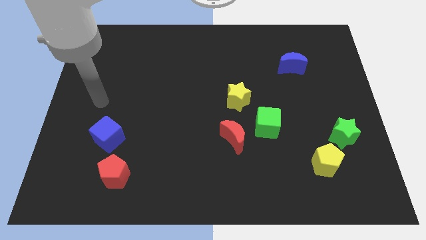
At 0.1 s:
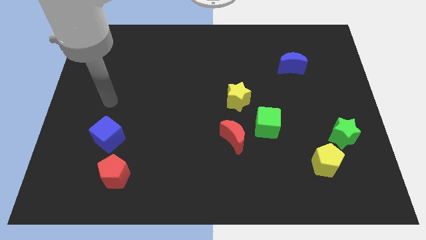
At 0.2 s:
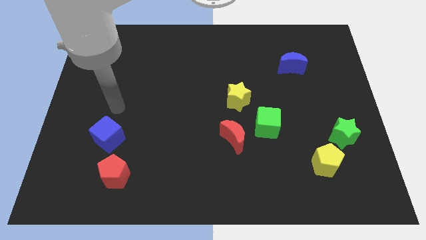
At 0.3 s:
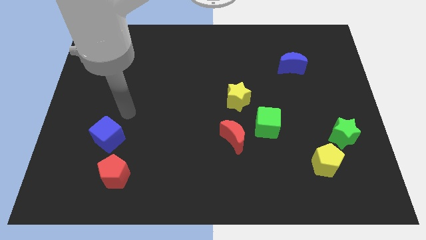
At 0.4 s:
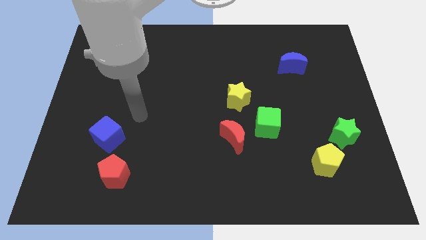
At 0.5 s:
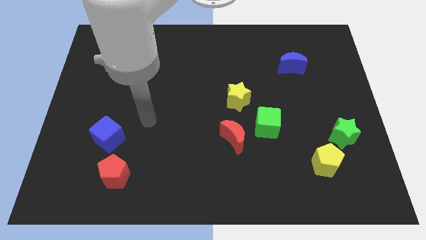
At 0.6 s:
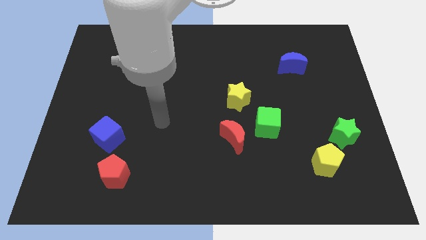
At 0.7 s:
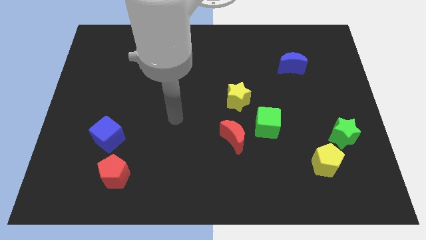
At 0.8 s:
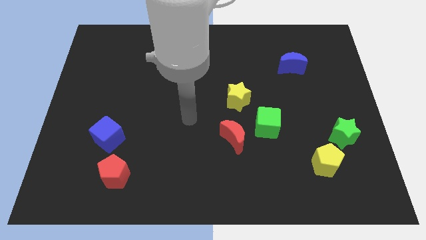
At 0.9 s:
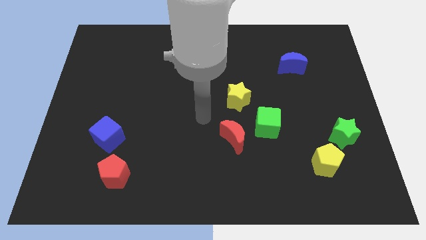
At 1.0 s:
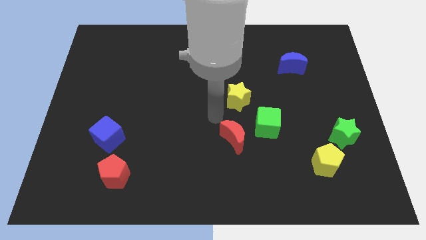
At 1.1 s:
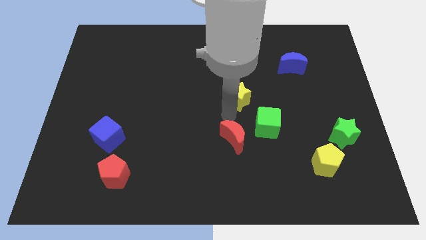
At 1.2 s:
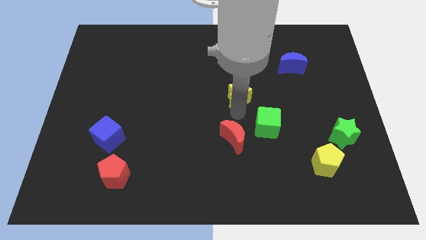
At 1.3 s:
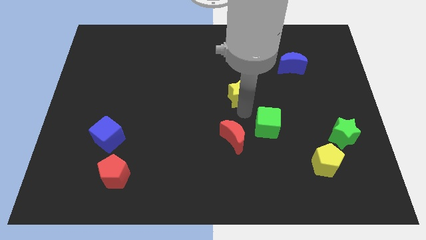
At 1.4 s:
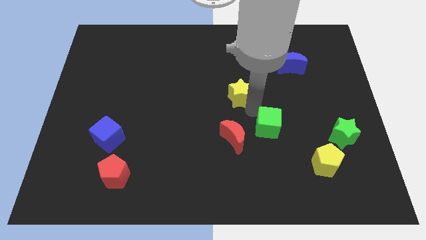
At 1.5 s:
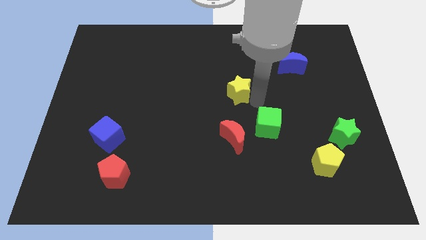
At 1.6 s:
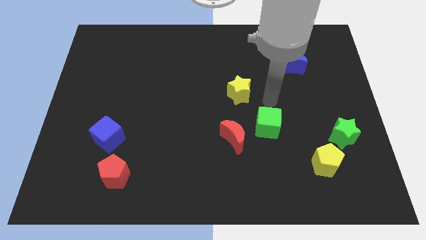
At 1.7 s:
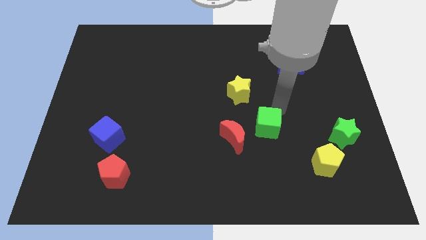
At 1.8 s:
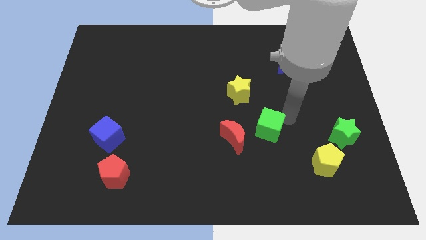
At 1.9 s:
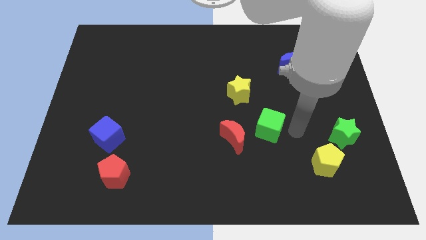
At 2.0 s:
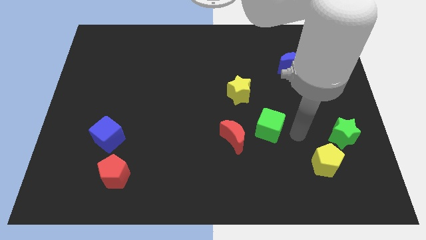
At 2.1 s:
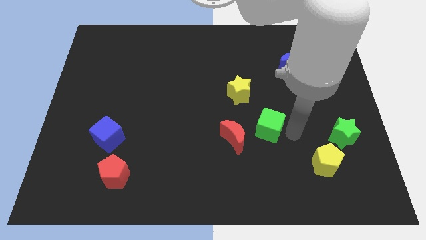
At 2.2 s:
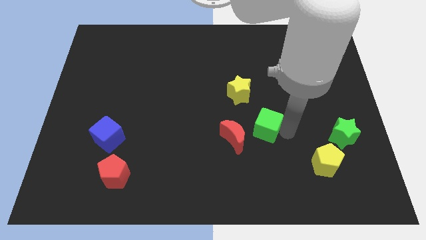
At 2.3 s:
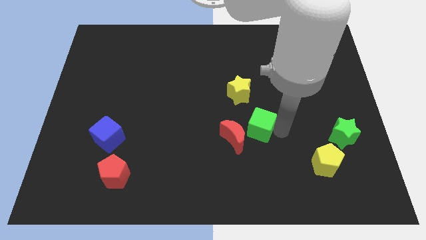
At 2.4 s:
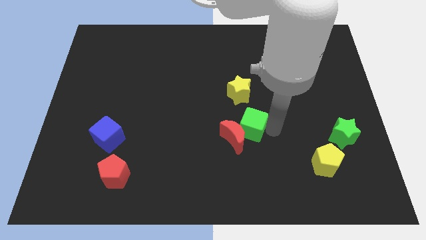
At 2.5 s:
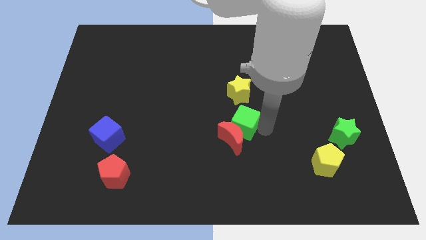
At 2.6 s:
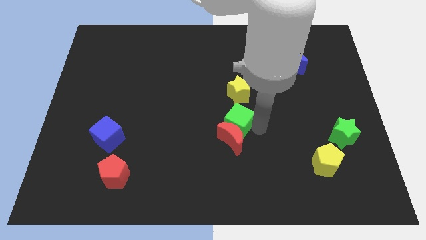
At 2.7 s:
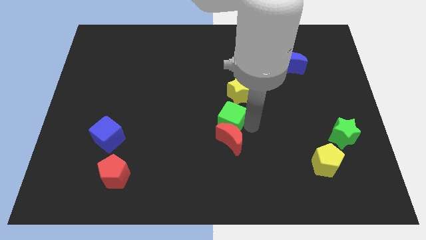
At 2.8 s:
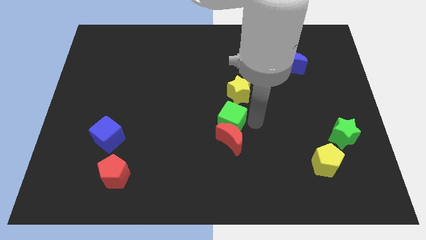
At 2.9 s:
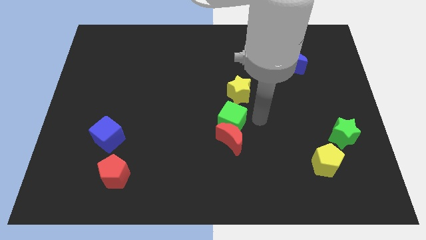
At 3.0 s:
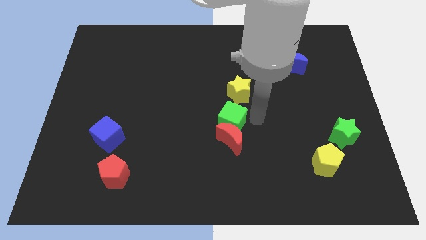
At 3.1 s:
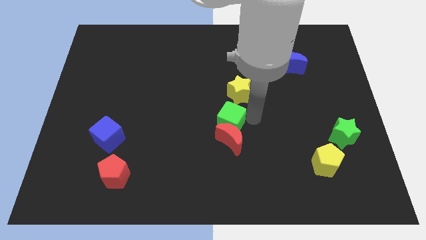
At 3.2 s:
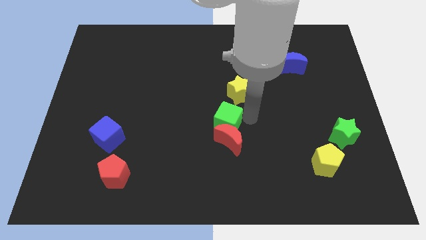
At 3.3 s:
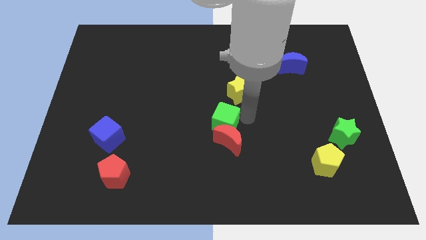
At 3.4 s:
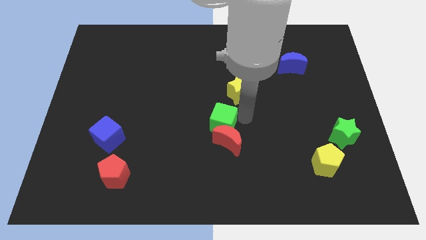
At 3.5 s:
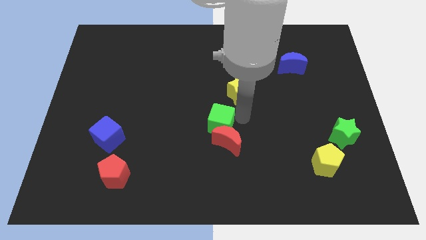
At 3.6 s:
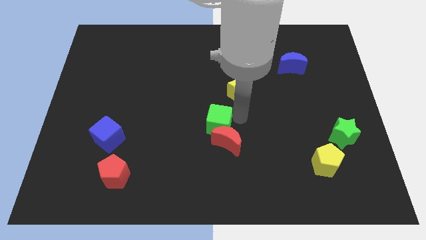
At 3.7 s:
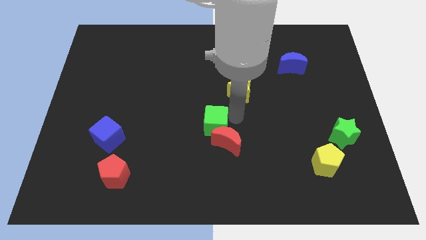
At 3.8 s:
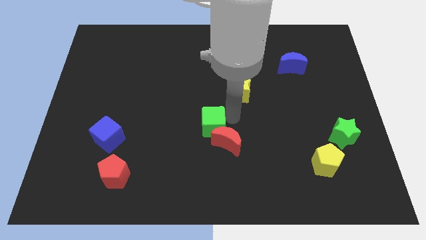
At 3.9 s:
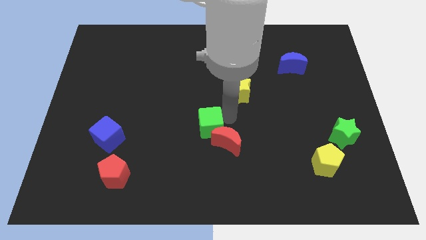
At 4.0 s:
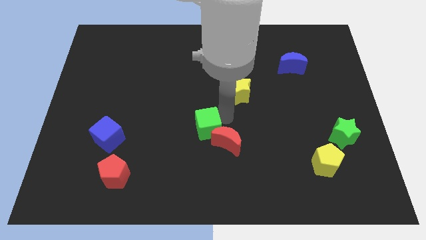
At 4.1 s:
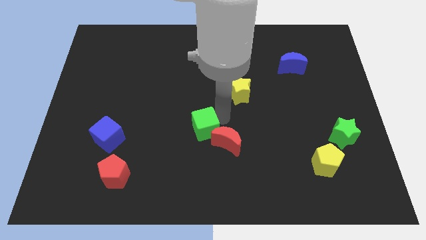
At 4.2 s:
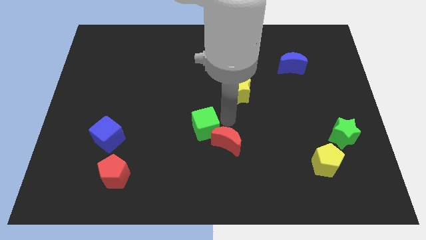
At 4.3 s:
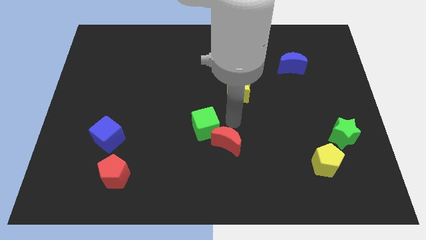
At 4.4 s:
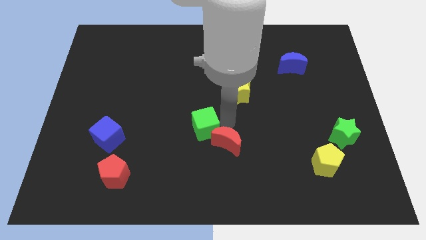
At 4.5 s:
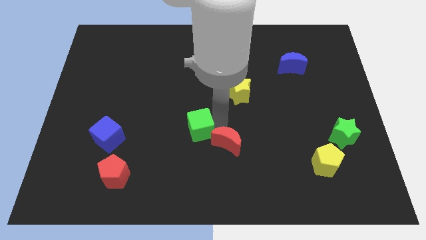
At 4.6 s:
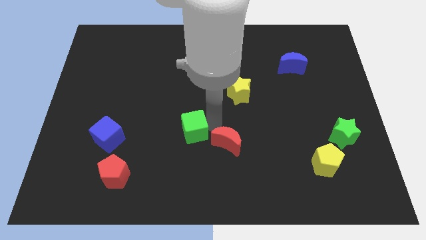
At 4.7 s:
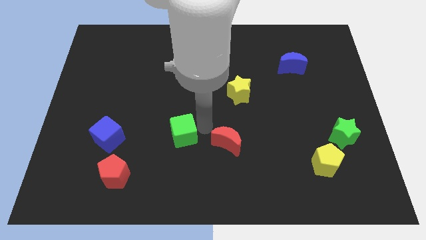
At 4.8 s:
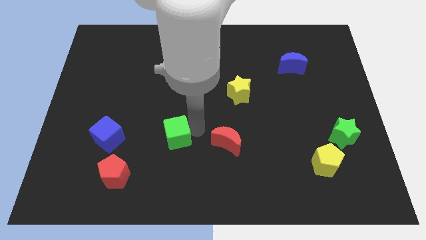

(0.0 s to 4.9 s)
slide the green cube to the right of the blue cube

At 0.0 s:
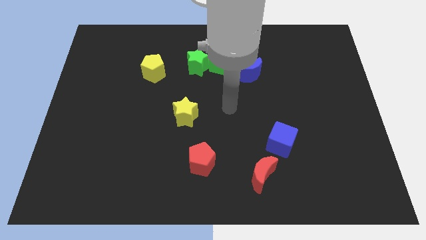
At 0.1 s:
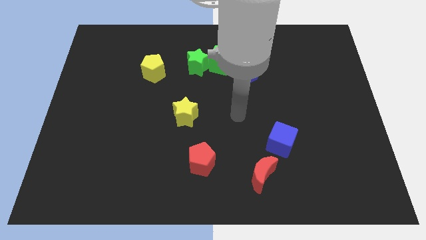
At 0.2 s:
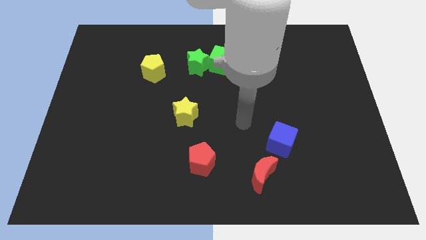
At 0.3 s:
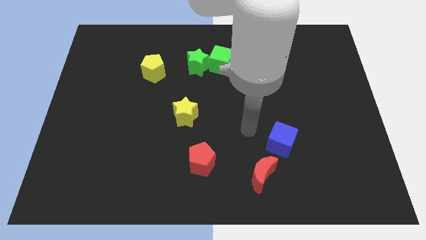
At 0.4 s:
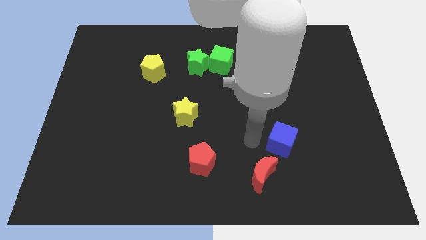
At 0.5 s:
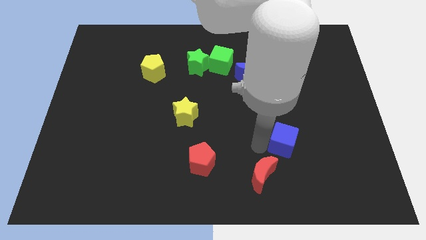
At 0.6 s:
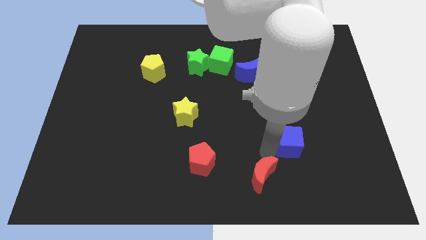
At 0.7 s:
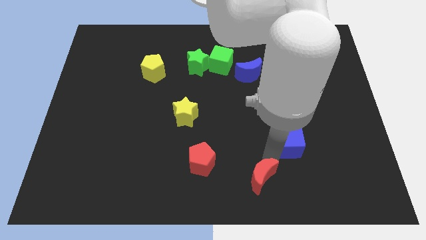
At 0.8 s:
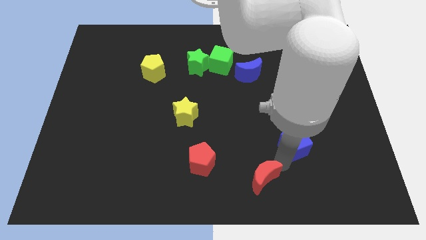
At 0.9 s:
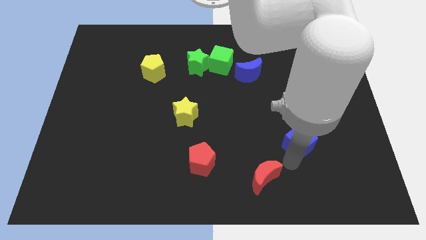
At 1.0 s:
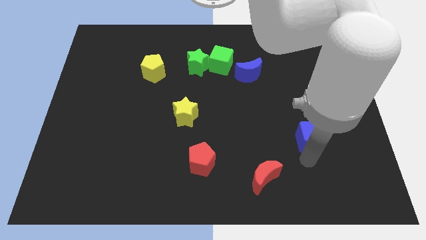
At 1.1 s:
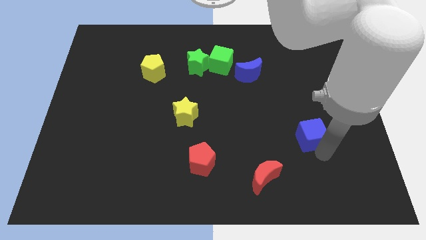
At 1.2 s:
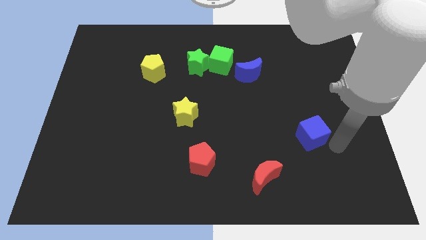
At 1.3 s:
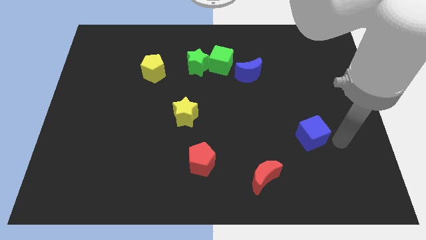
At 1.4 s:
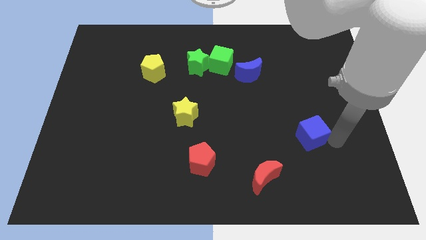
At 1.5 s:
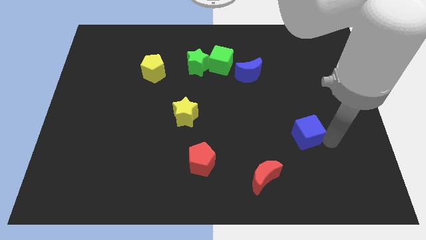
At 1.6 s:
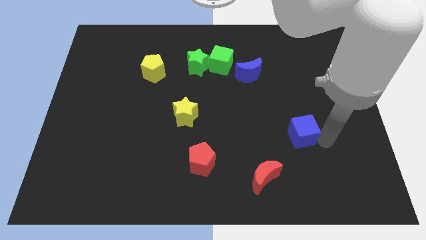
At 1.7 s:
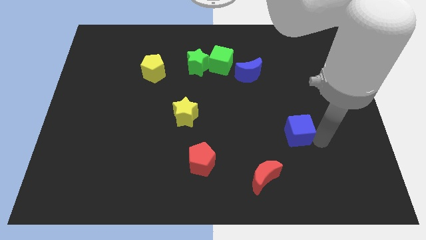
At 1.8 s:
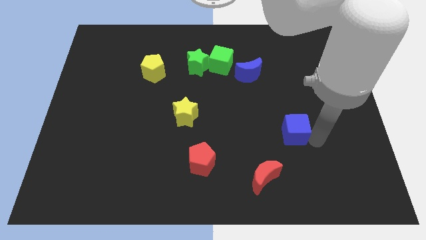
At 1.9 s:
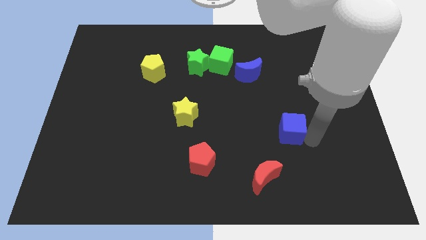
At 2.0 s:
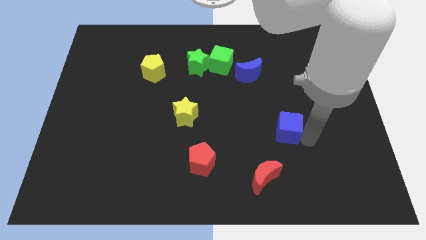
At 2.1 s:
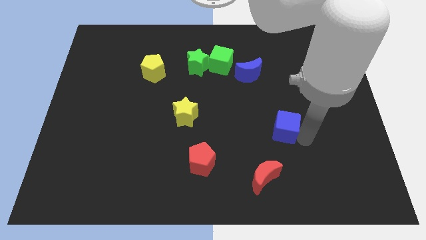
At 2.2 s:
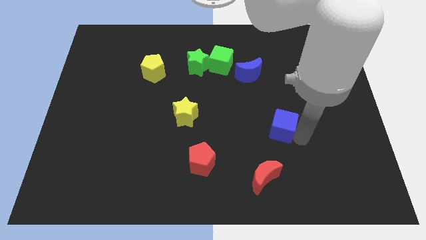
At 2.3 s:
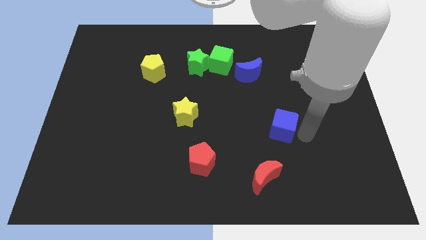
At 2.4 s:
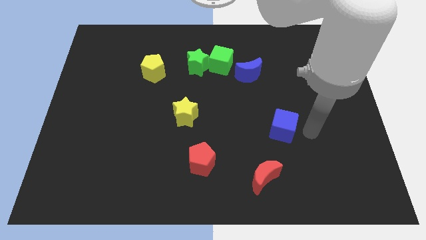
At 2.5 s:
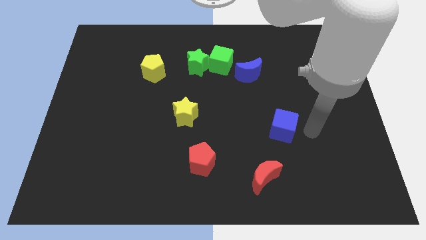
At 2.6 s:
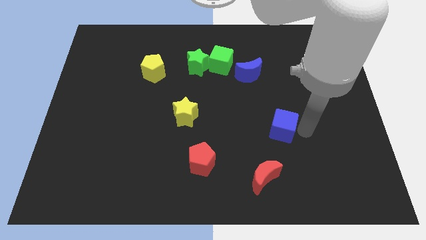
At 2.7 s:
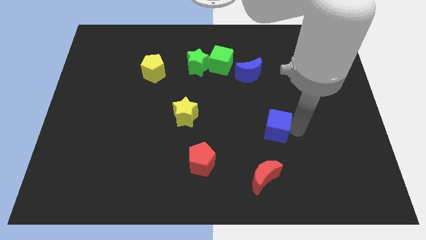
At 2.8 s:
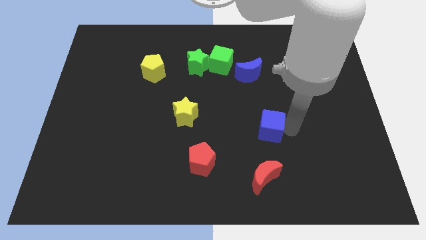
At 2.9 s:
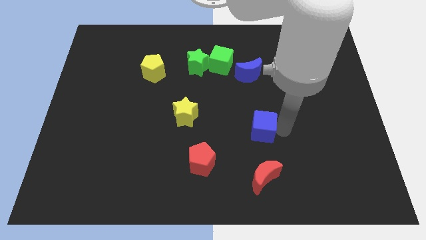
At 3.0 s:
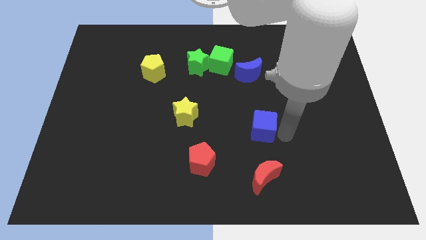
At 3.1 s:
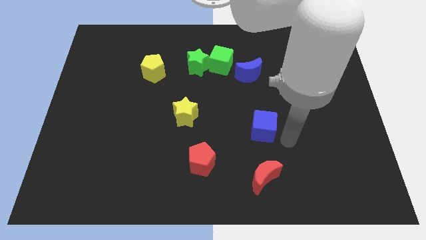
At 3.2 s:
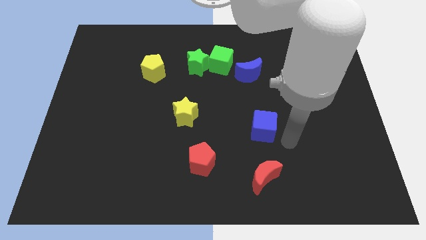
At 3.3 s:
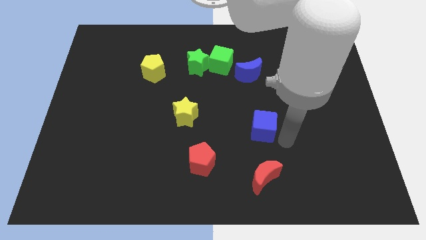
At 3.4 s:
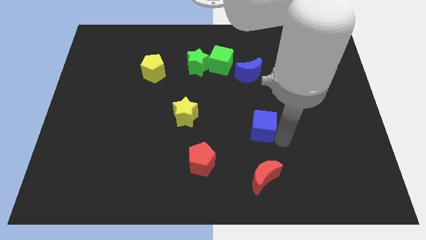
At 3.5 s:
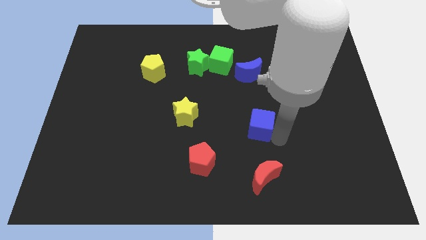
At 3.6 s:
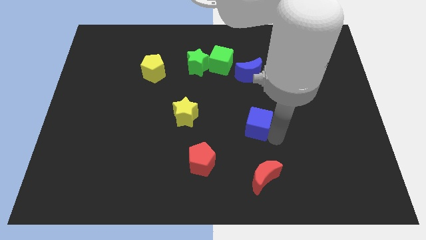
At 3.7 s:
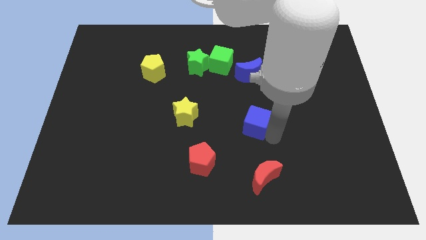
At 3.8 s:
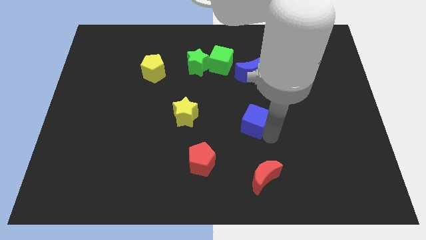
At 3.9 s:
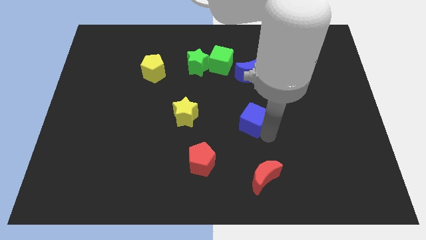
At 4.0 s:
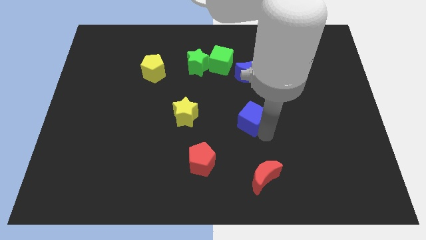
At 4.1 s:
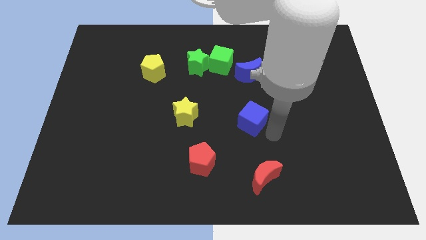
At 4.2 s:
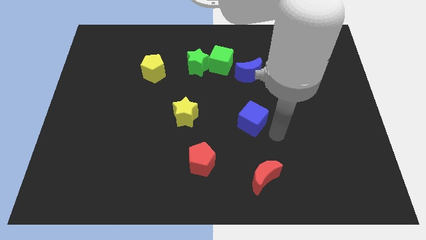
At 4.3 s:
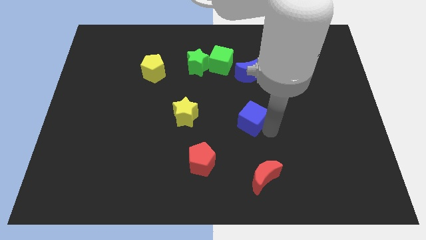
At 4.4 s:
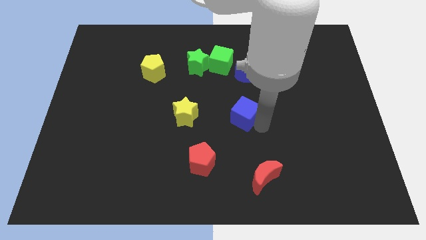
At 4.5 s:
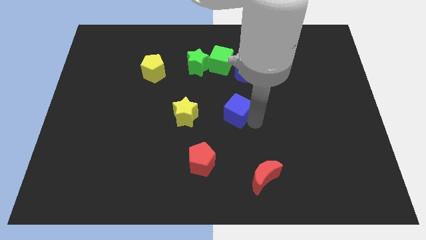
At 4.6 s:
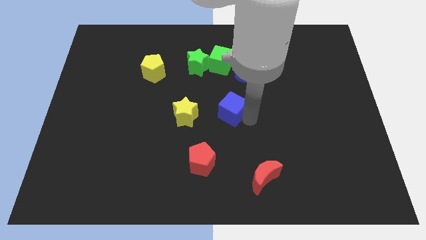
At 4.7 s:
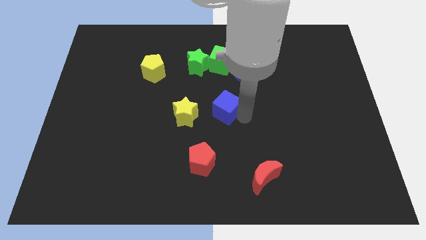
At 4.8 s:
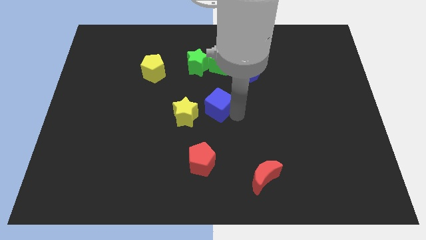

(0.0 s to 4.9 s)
slide the blue cube diagonally up and to the right of the yellow star
